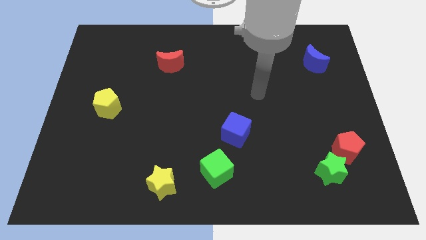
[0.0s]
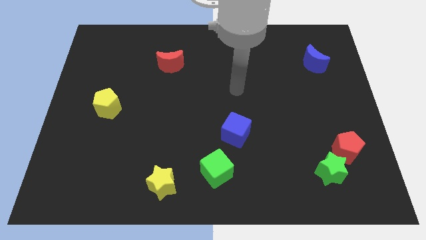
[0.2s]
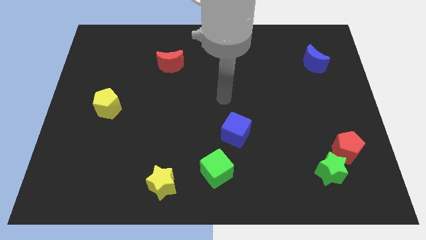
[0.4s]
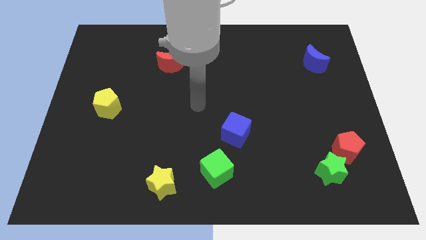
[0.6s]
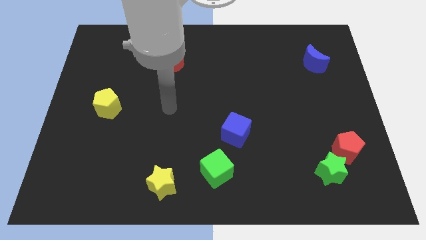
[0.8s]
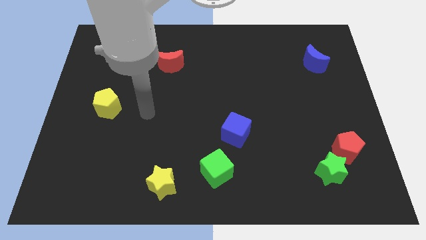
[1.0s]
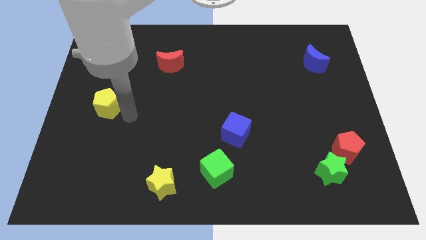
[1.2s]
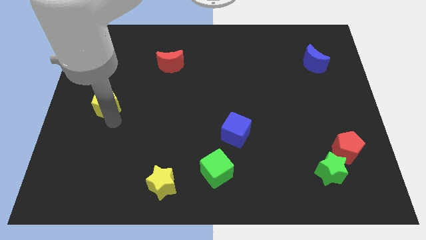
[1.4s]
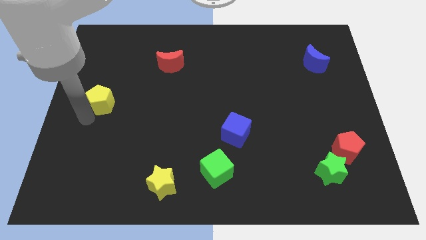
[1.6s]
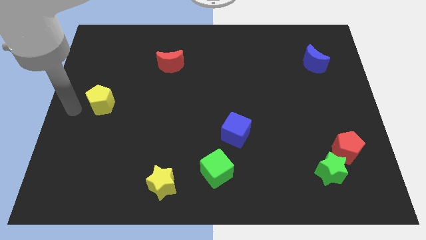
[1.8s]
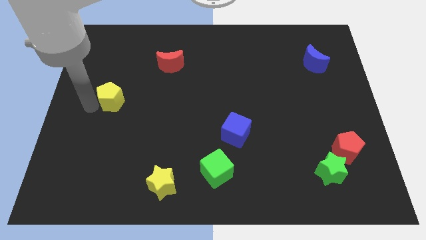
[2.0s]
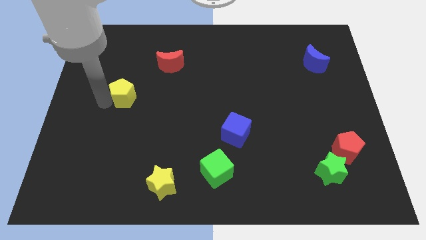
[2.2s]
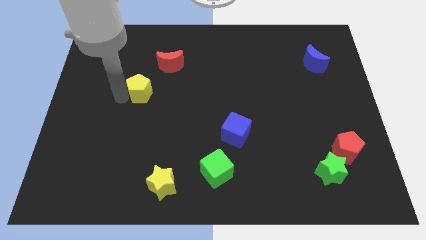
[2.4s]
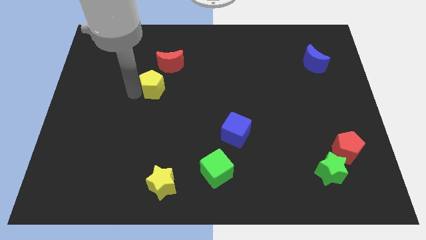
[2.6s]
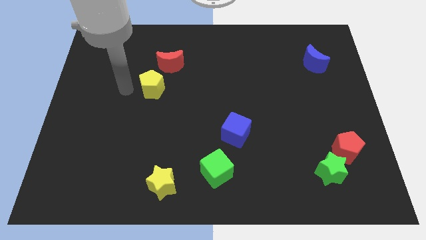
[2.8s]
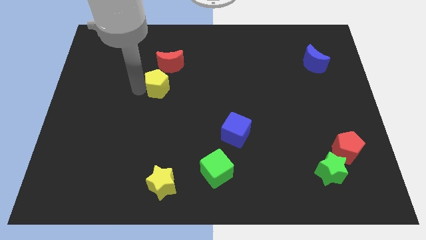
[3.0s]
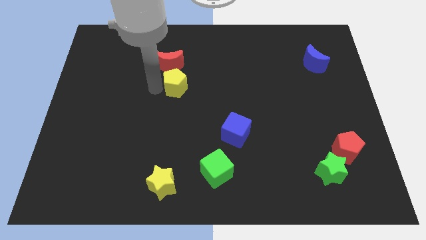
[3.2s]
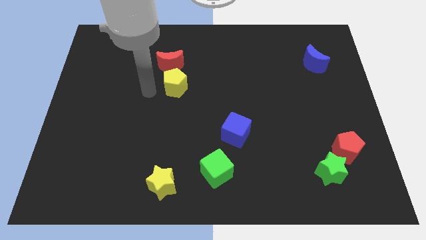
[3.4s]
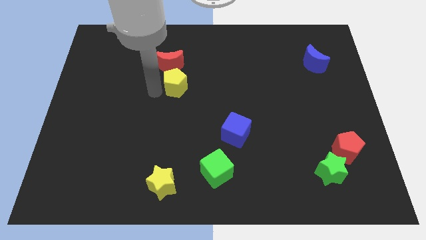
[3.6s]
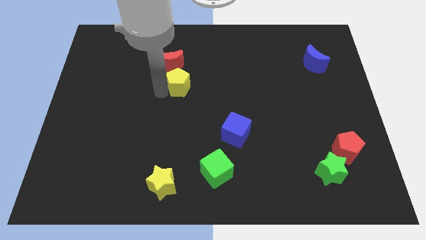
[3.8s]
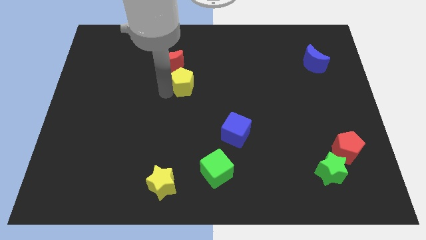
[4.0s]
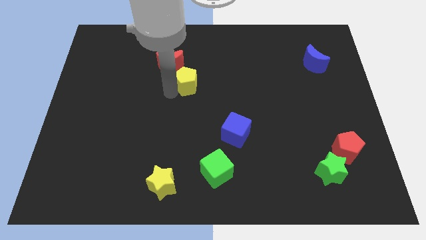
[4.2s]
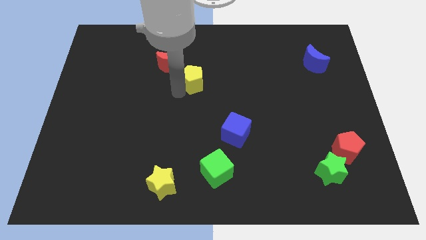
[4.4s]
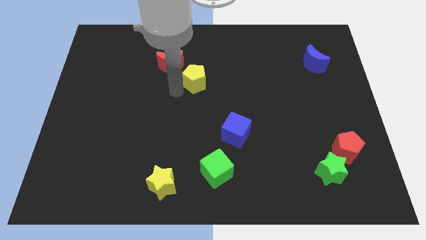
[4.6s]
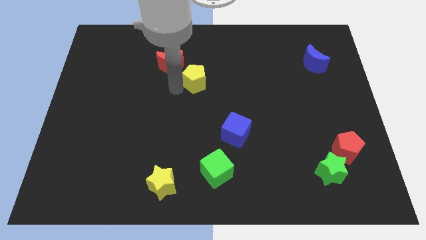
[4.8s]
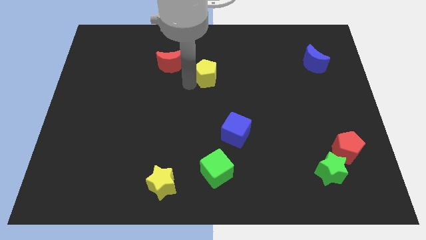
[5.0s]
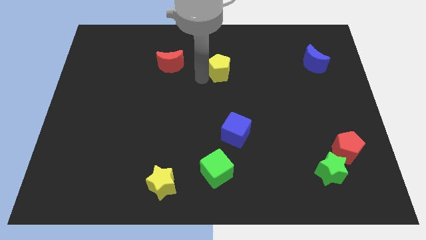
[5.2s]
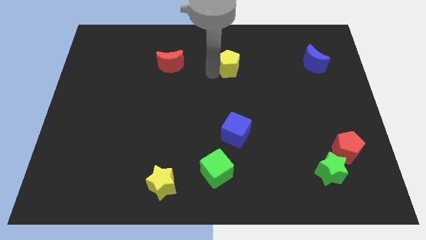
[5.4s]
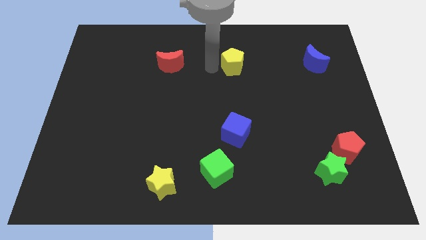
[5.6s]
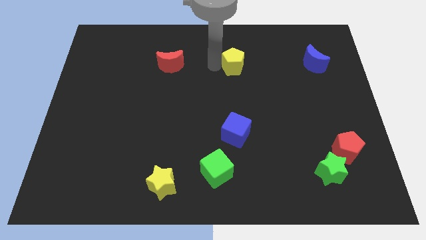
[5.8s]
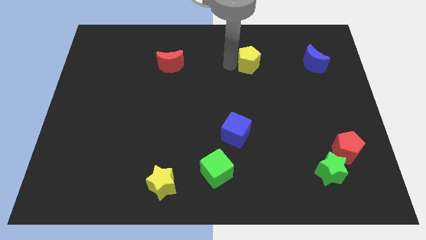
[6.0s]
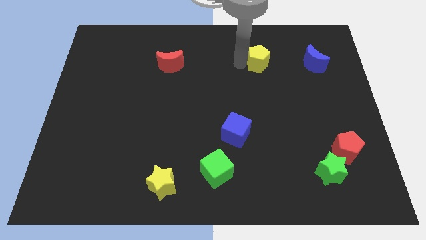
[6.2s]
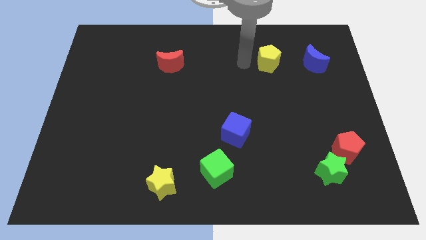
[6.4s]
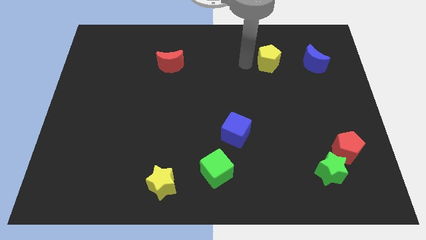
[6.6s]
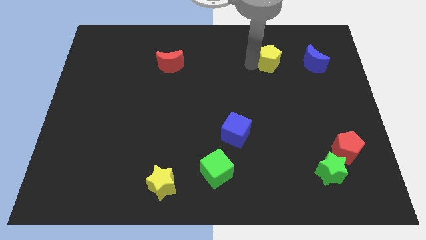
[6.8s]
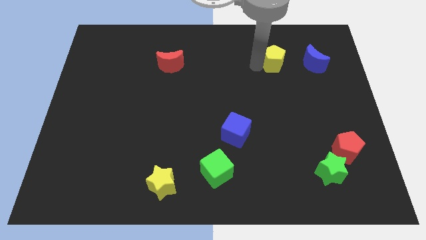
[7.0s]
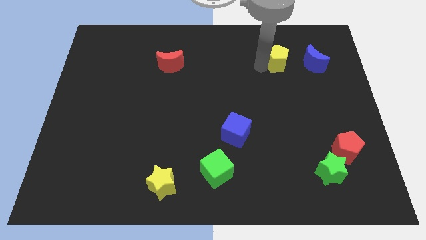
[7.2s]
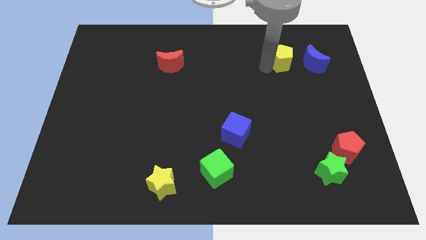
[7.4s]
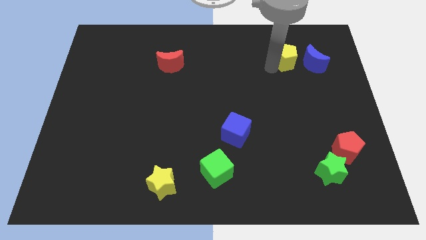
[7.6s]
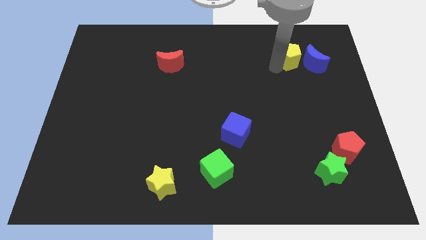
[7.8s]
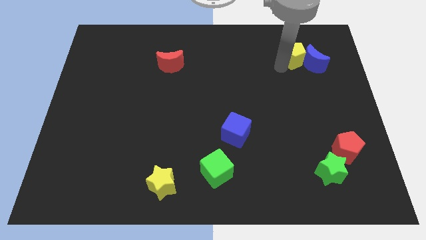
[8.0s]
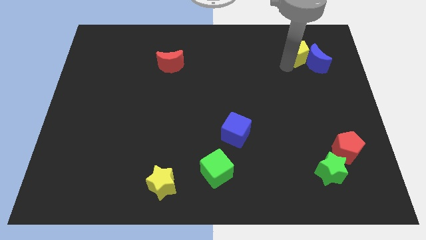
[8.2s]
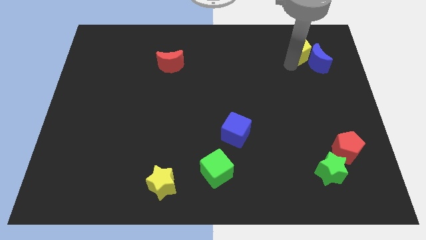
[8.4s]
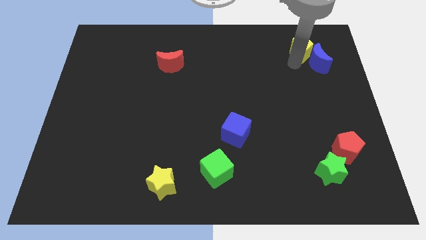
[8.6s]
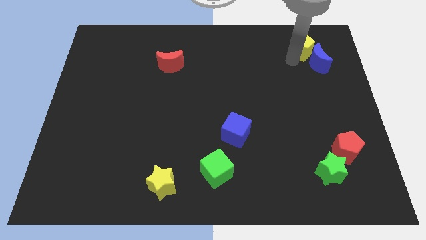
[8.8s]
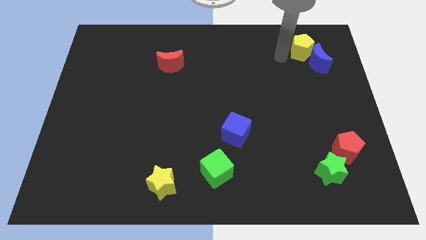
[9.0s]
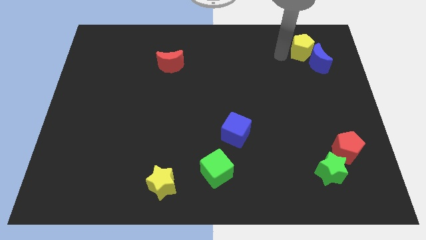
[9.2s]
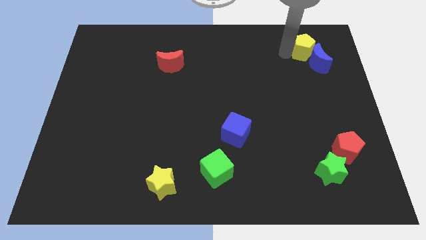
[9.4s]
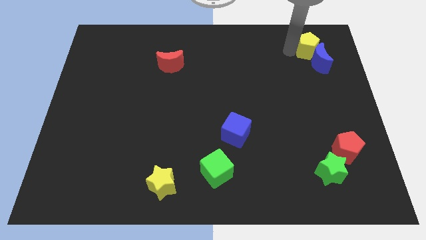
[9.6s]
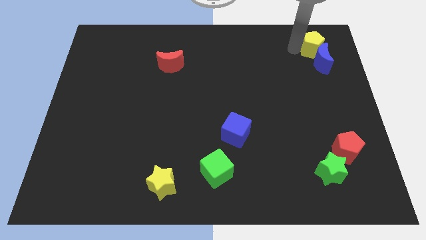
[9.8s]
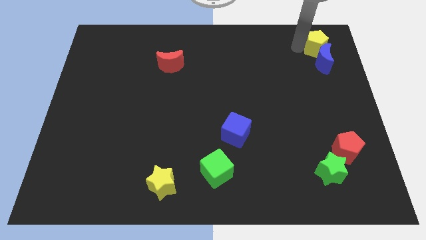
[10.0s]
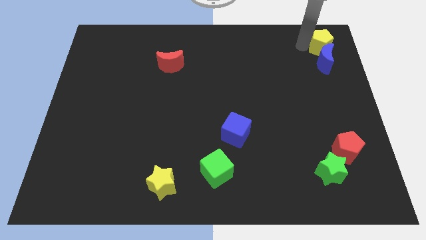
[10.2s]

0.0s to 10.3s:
push the yellow pentagon to the top right corner
